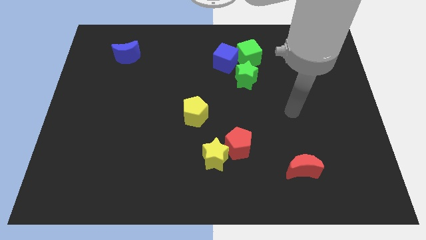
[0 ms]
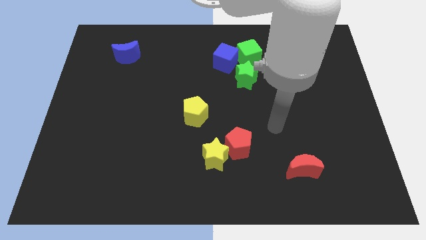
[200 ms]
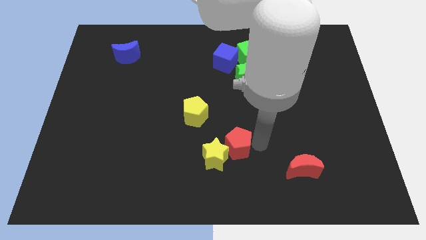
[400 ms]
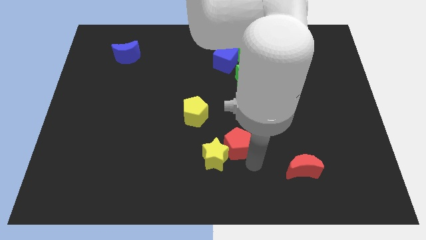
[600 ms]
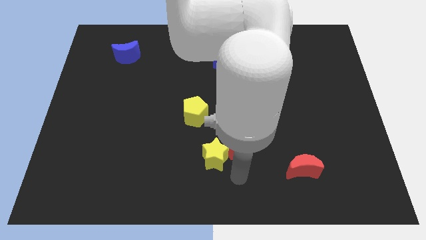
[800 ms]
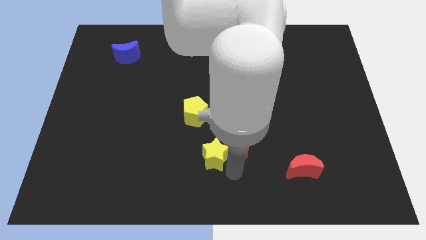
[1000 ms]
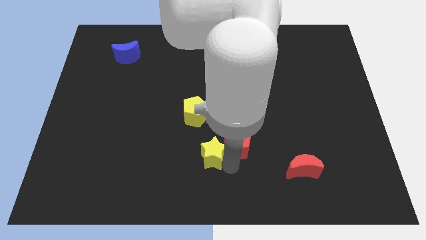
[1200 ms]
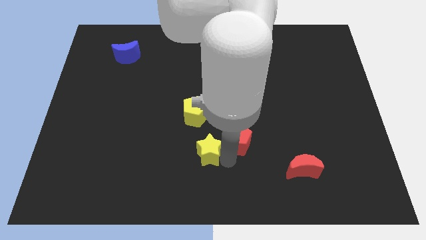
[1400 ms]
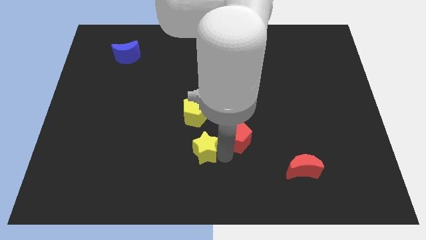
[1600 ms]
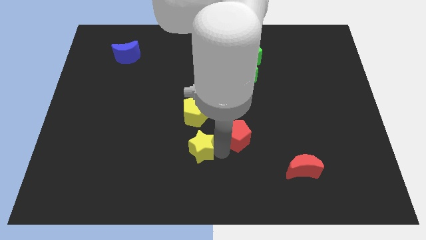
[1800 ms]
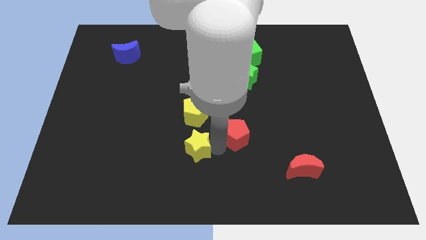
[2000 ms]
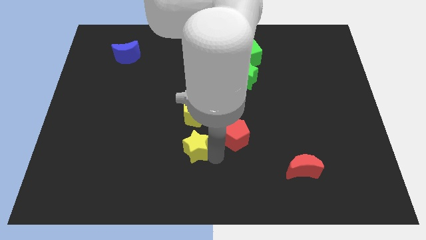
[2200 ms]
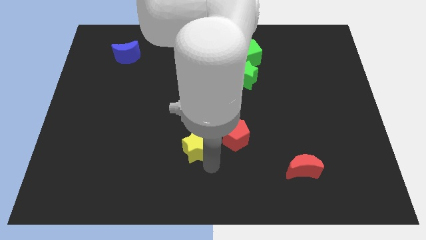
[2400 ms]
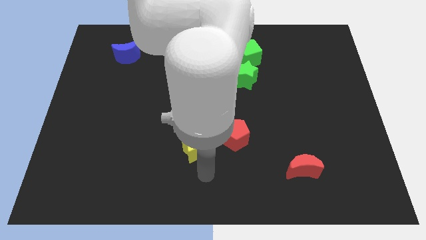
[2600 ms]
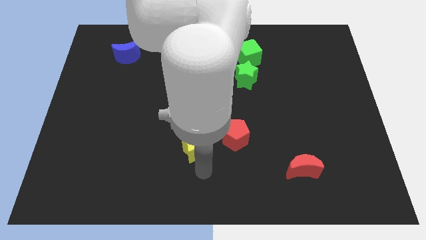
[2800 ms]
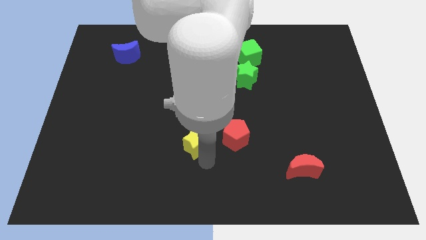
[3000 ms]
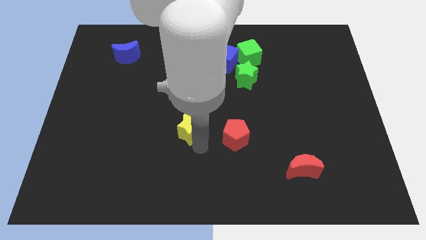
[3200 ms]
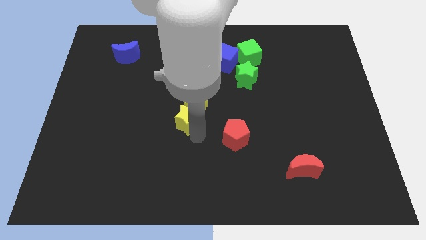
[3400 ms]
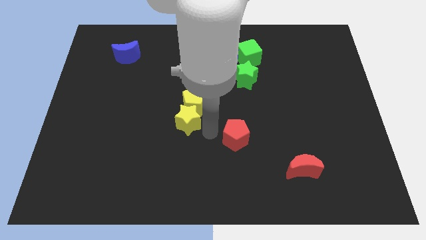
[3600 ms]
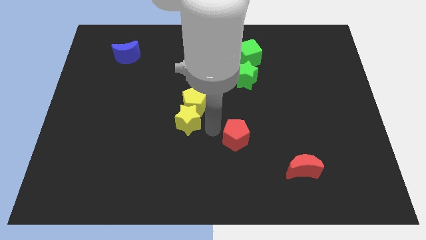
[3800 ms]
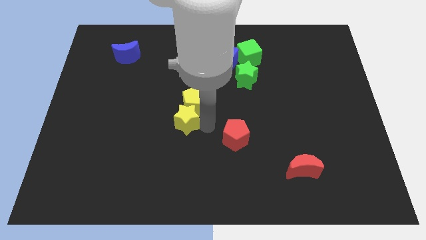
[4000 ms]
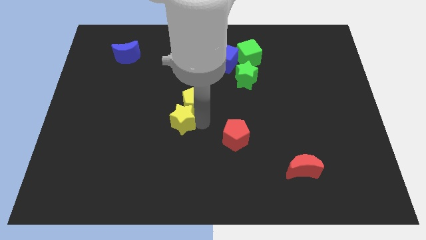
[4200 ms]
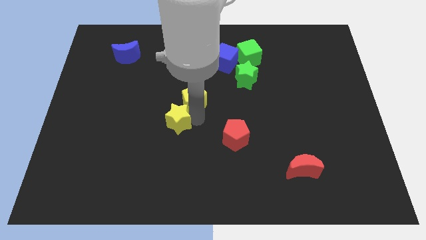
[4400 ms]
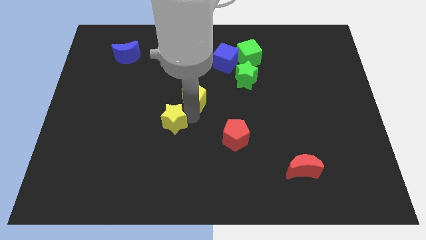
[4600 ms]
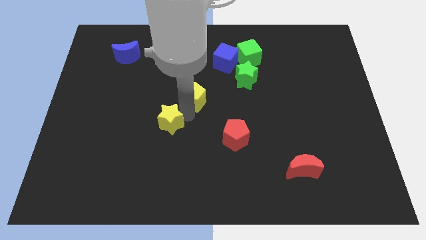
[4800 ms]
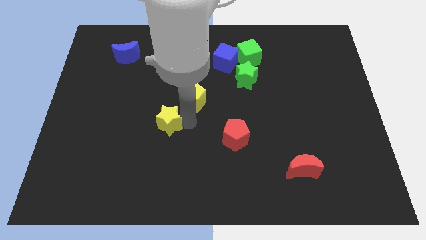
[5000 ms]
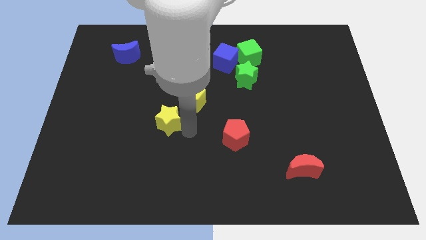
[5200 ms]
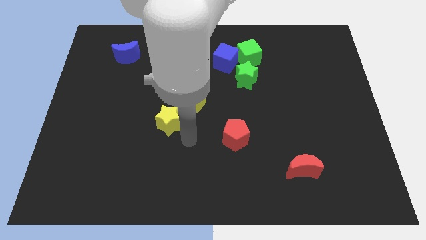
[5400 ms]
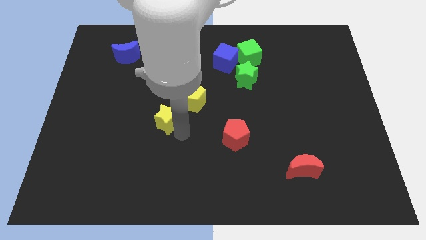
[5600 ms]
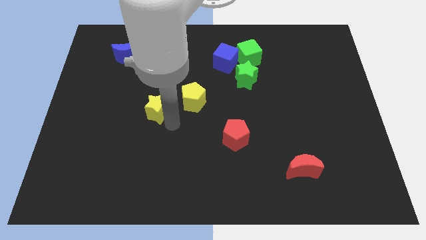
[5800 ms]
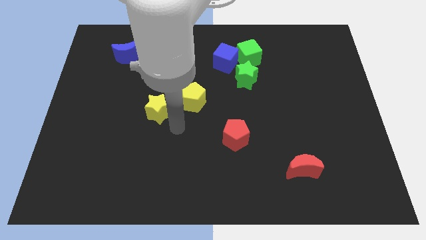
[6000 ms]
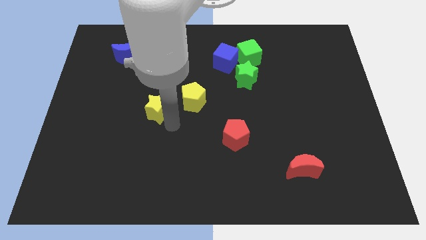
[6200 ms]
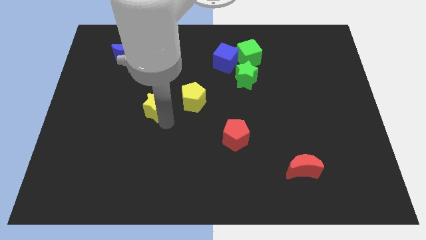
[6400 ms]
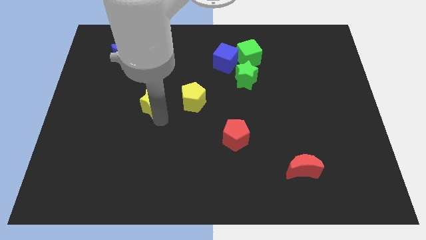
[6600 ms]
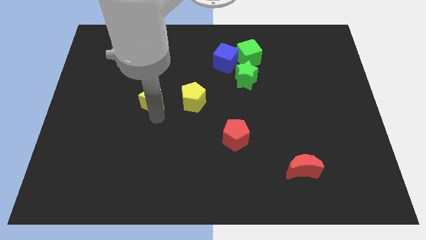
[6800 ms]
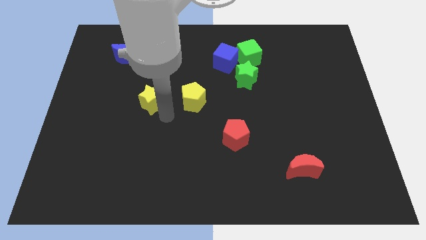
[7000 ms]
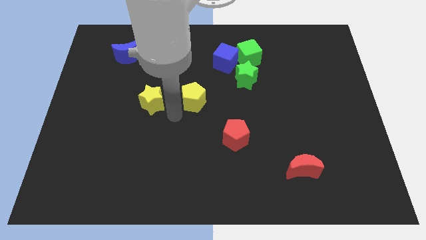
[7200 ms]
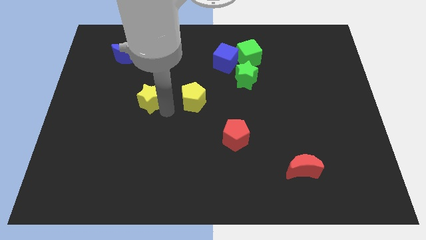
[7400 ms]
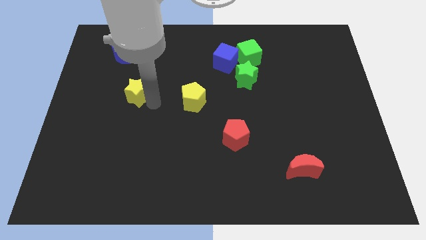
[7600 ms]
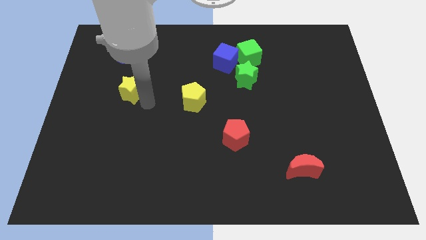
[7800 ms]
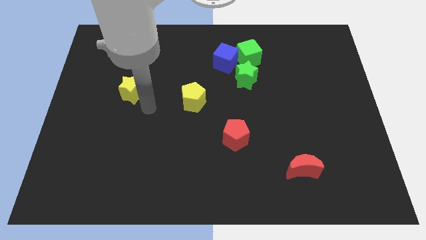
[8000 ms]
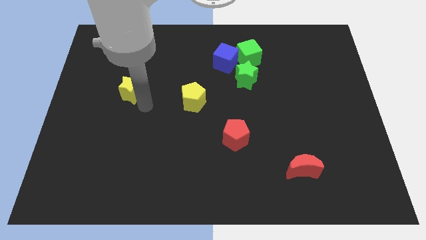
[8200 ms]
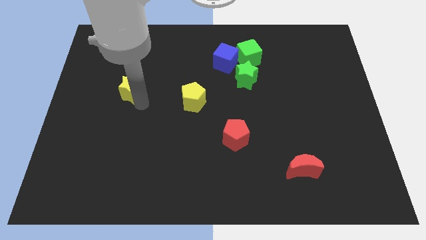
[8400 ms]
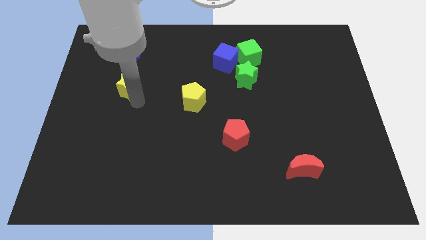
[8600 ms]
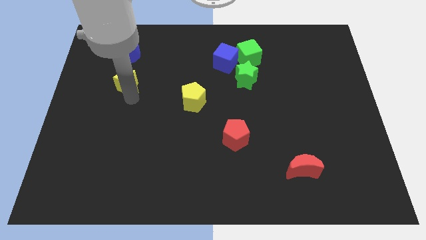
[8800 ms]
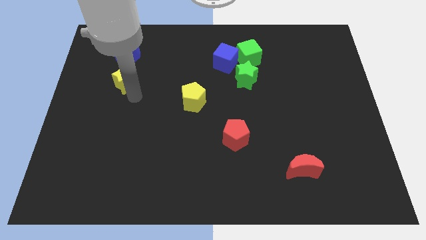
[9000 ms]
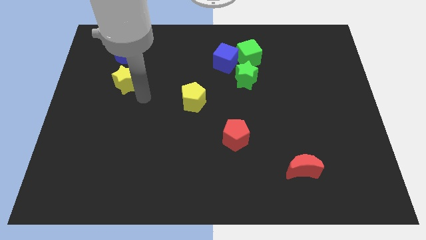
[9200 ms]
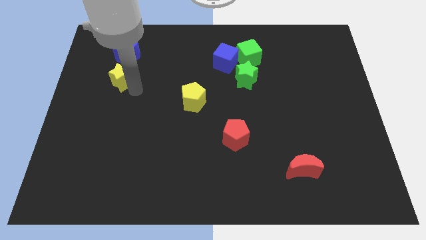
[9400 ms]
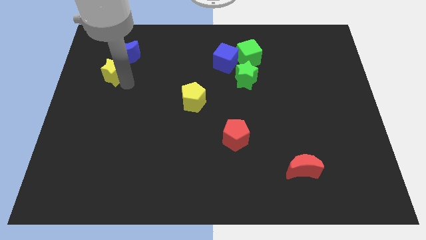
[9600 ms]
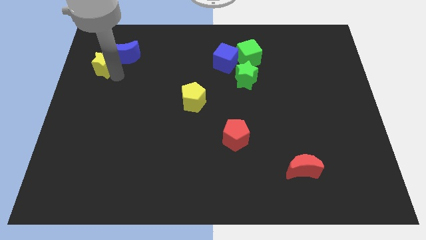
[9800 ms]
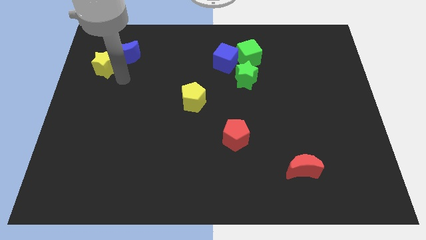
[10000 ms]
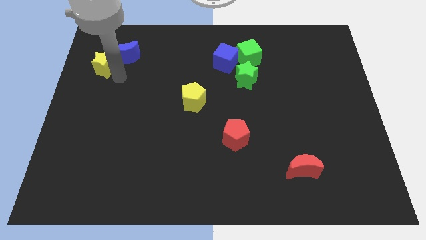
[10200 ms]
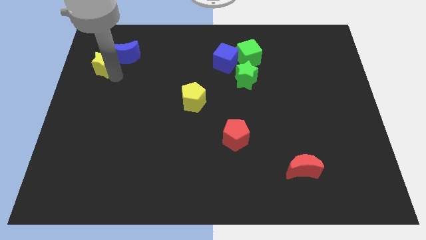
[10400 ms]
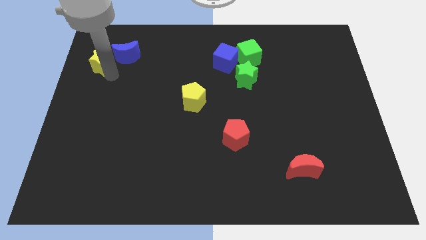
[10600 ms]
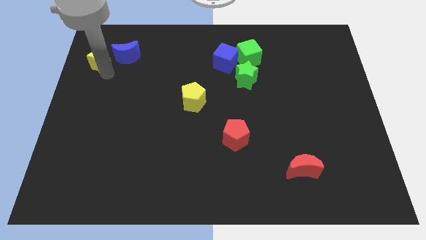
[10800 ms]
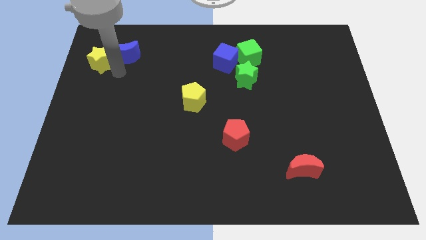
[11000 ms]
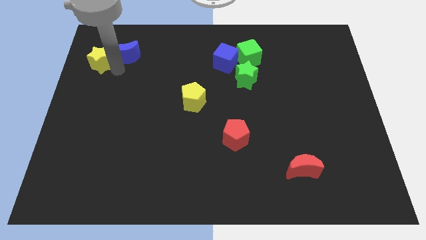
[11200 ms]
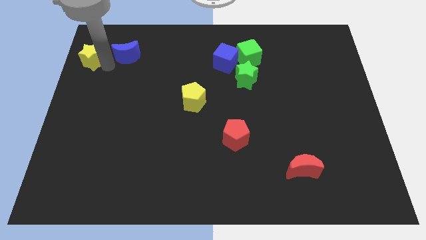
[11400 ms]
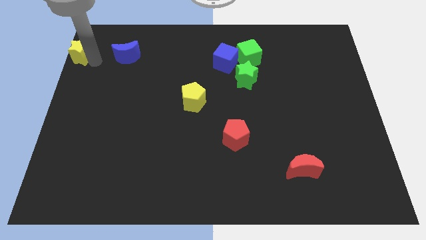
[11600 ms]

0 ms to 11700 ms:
move the yellow star to the top left corner
